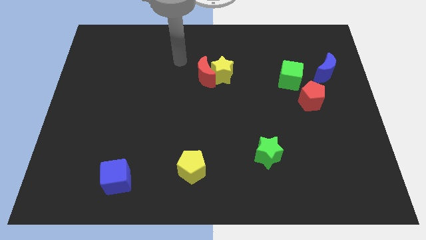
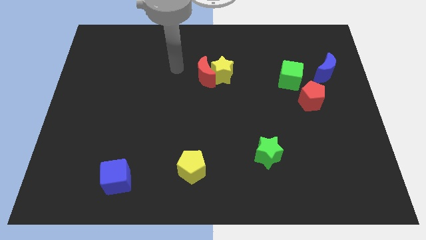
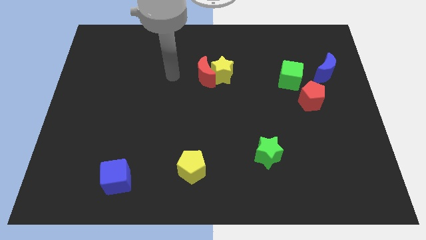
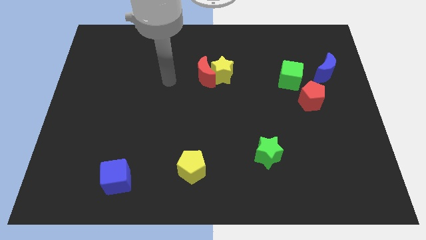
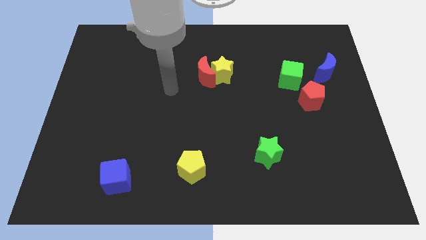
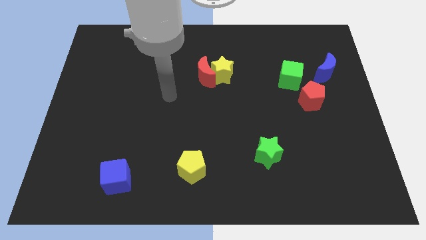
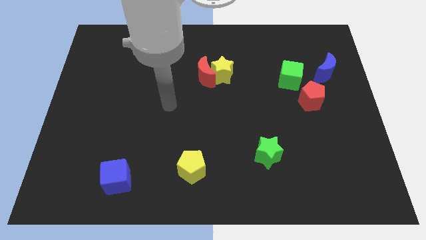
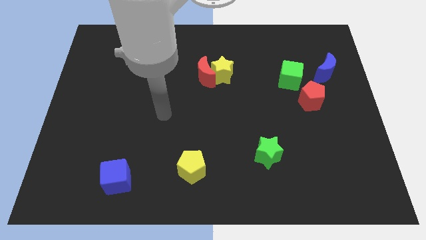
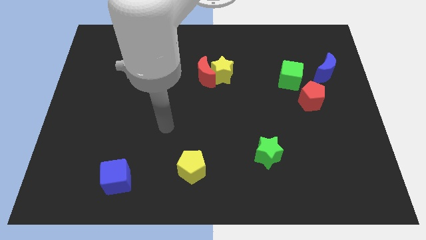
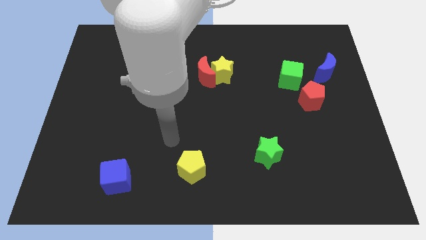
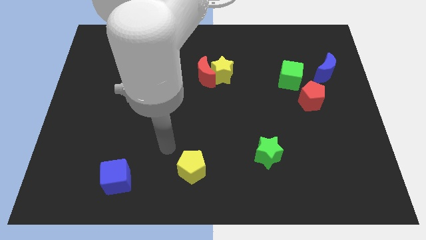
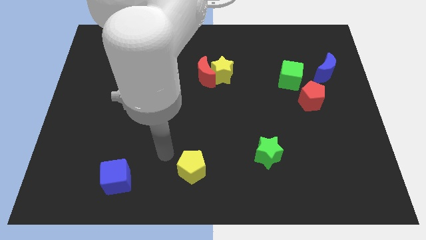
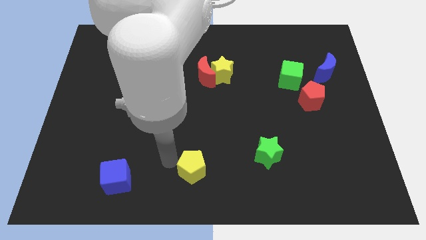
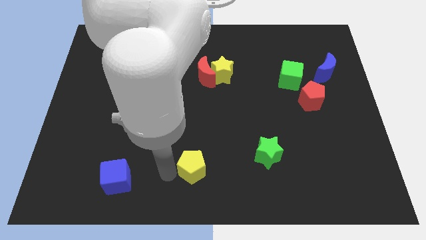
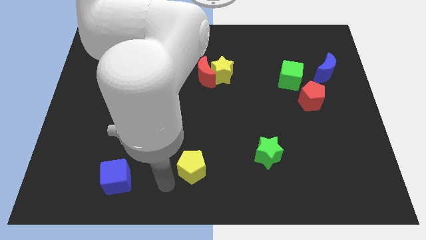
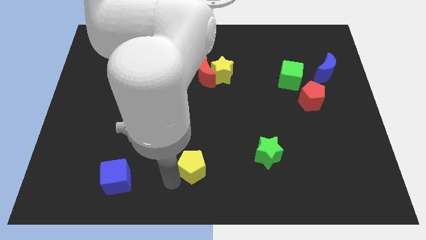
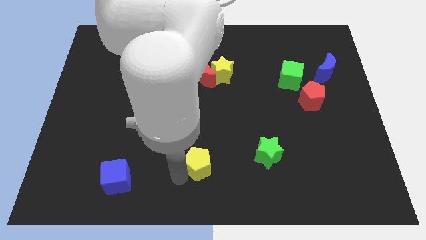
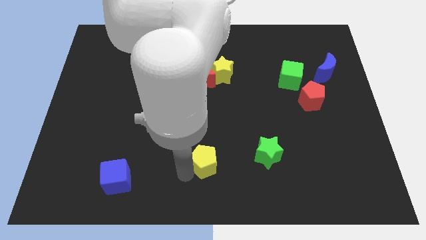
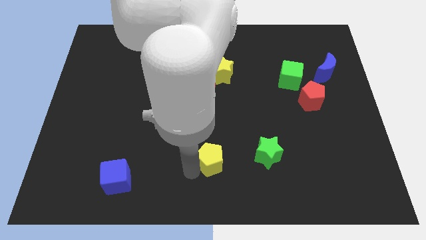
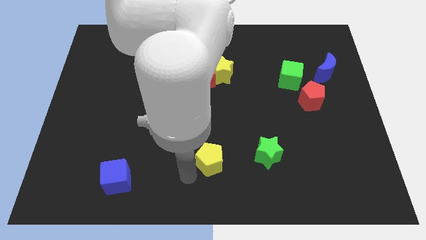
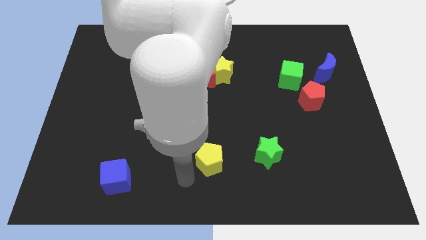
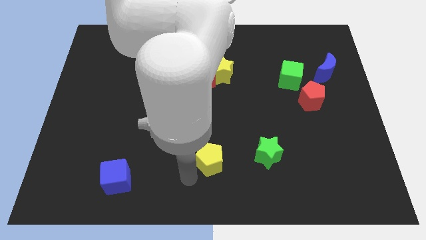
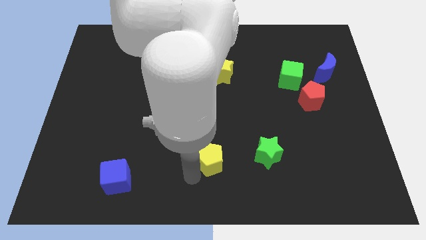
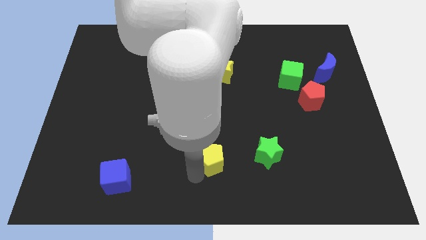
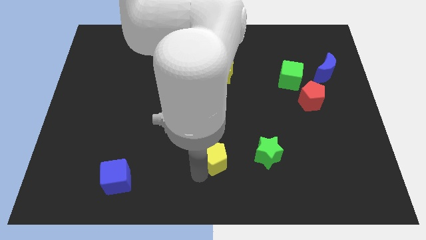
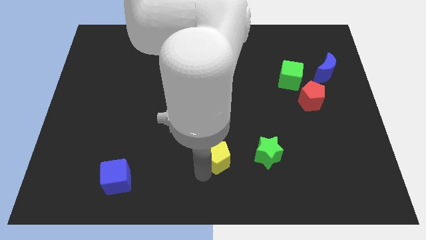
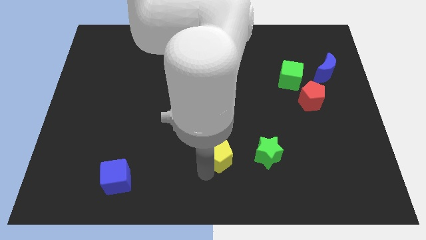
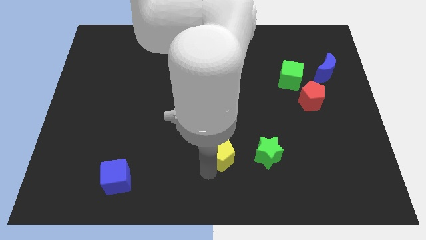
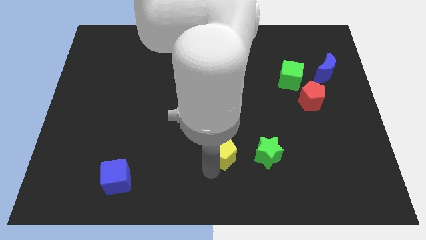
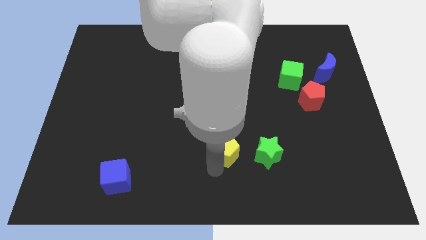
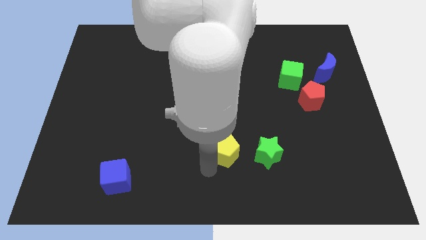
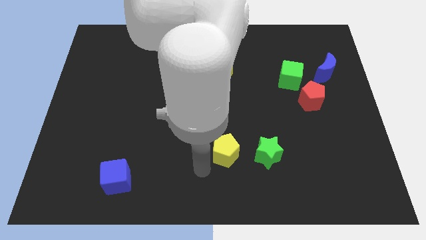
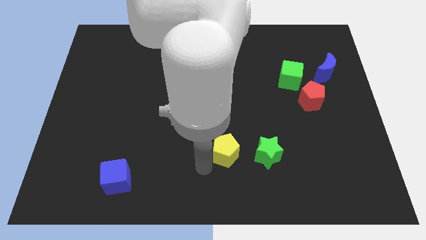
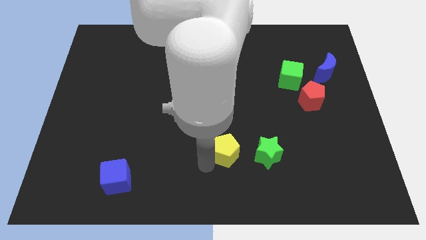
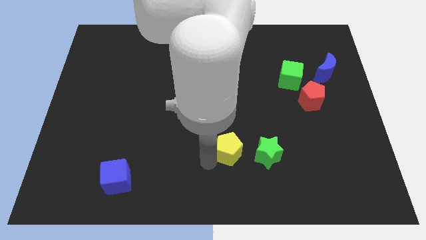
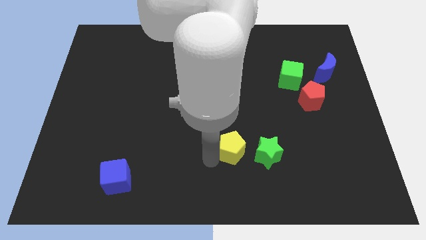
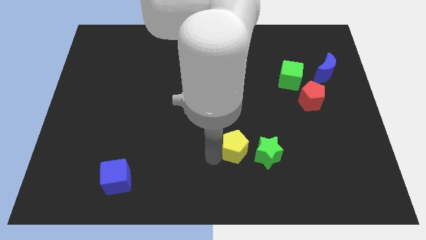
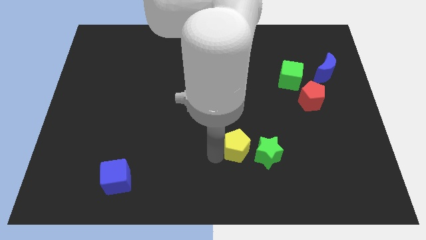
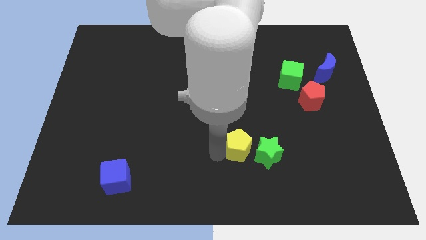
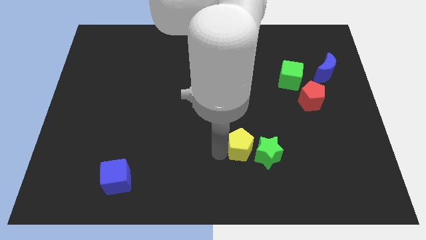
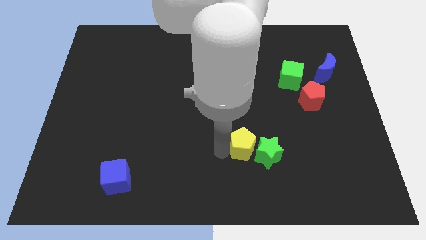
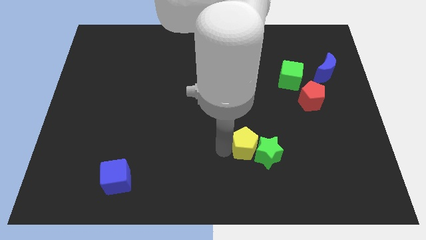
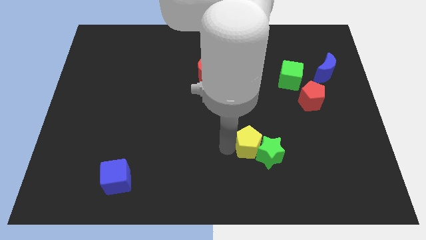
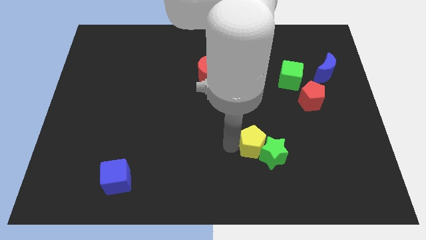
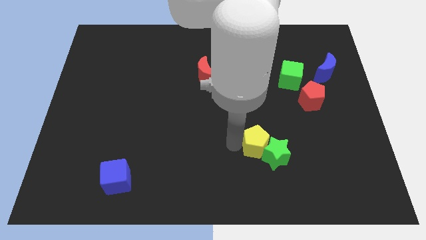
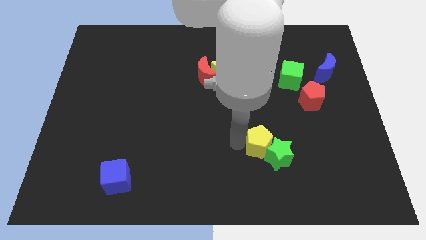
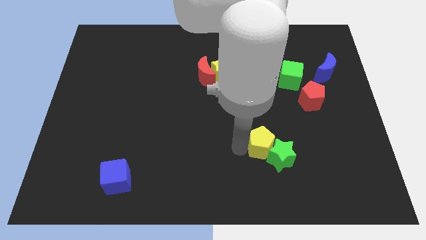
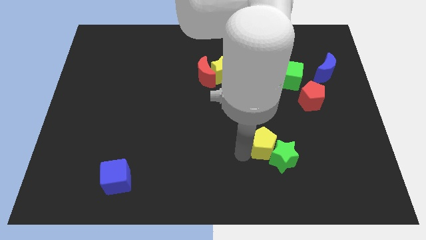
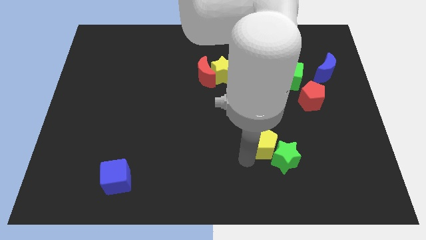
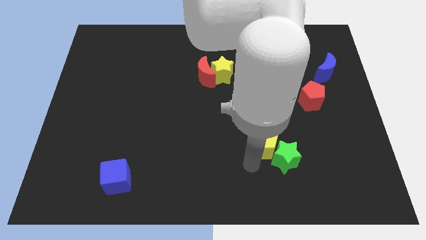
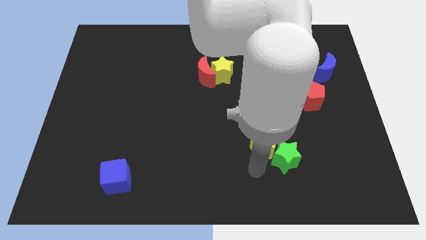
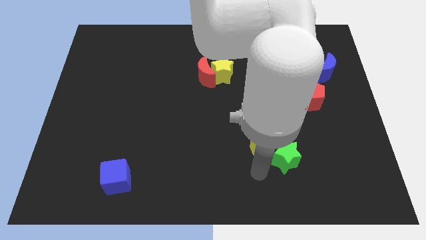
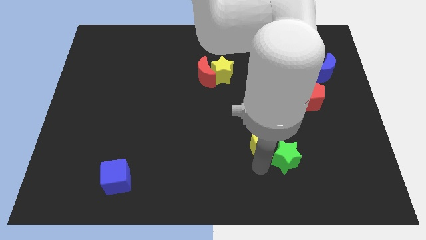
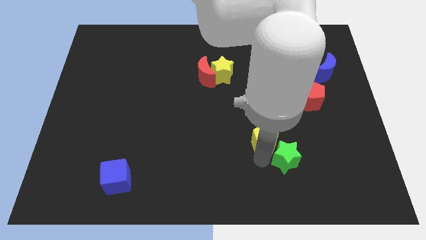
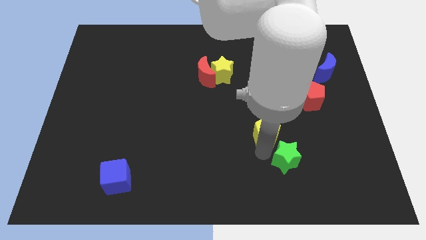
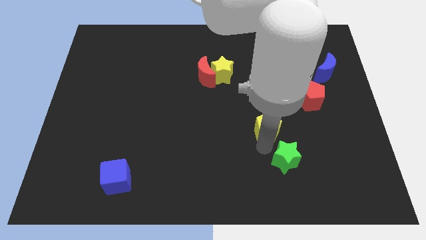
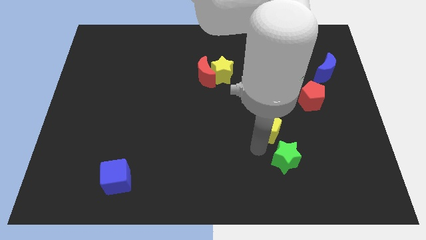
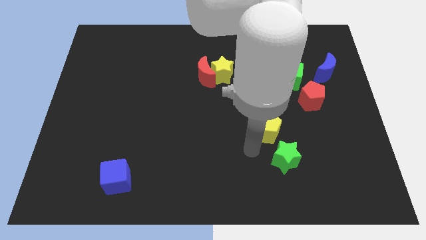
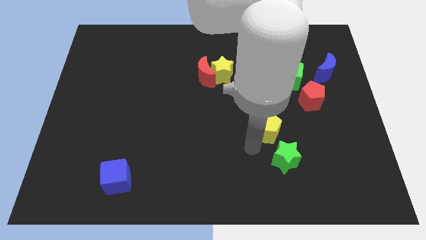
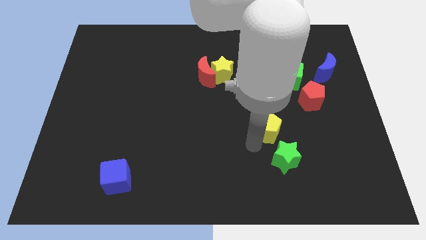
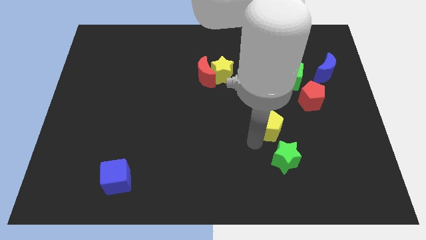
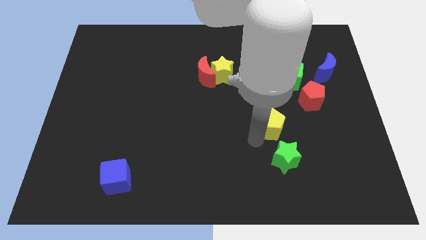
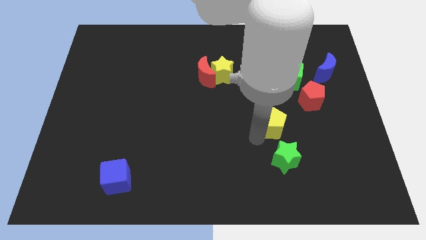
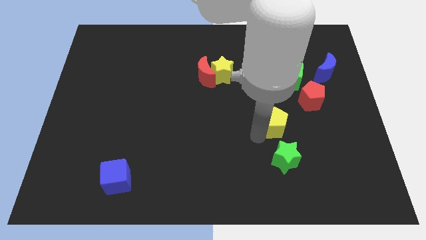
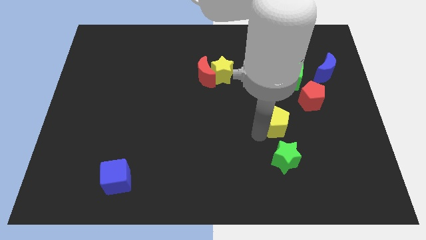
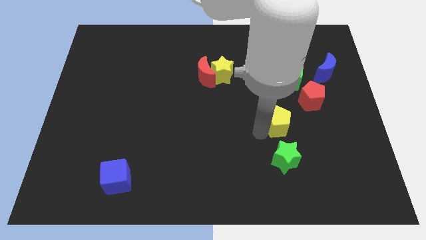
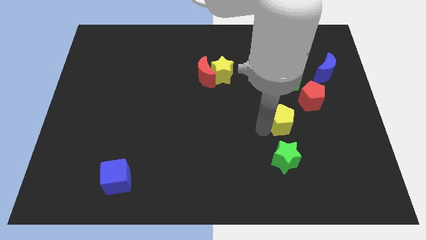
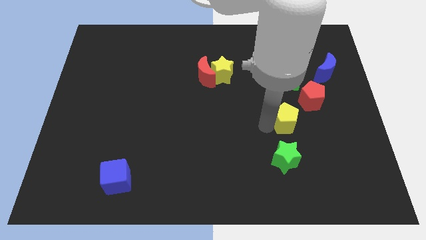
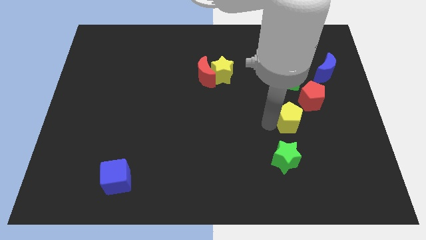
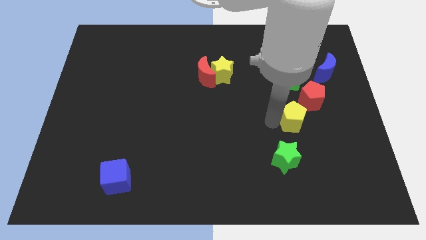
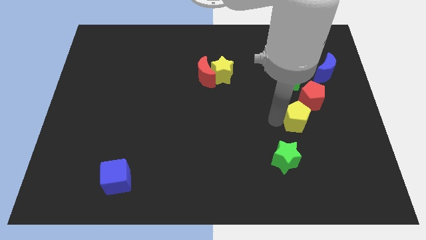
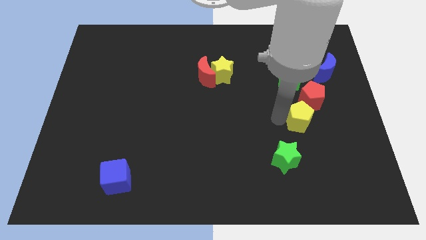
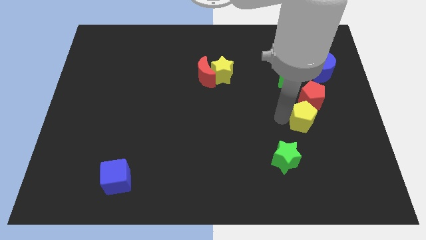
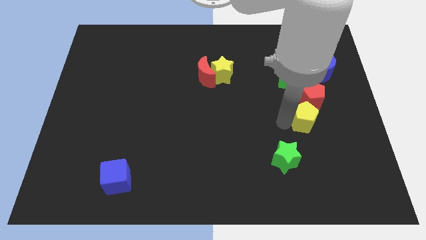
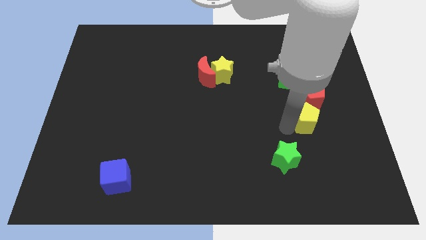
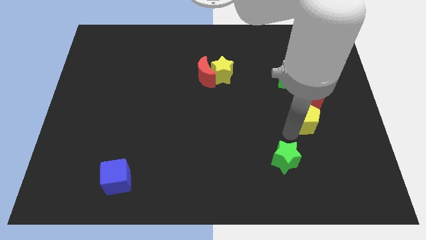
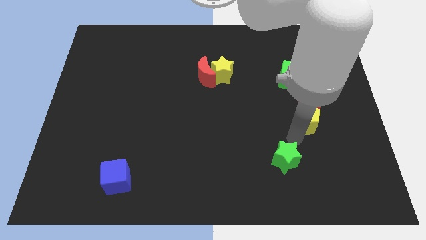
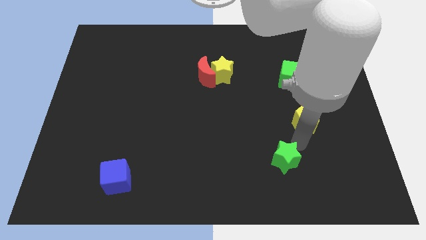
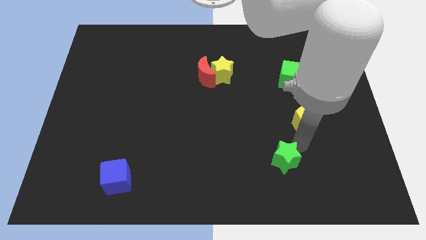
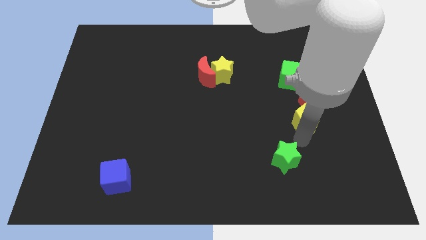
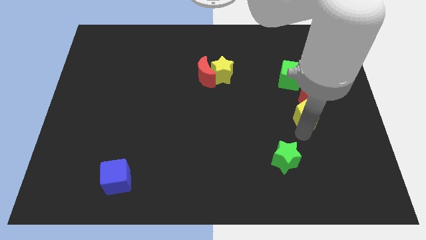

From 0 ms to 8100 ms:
slide the yellow pentagon close to the red pentagon
